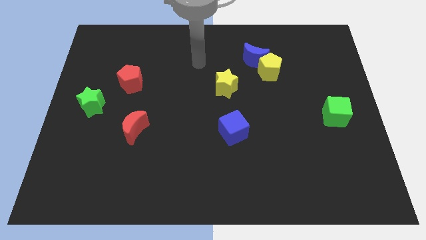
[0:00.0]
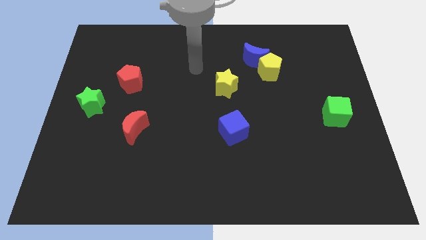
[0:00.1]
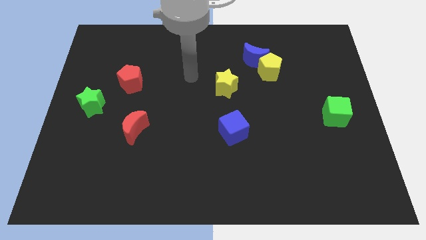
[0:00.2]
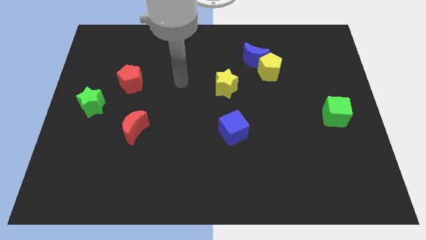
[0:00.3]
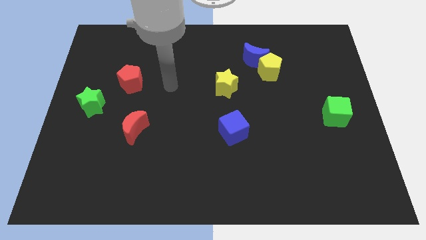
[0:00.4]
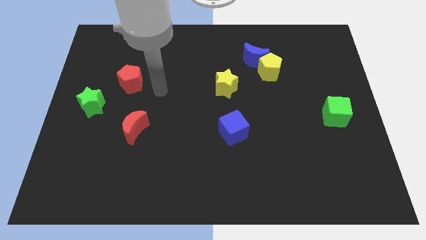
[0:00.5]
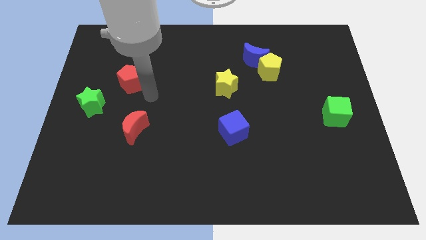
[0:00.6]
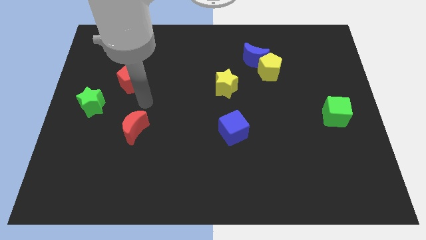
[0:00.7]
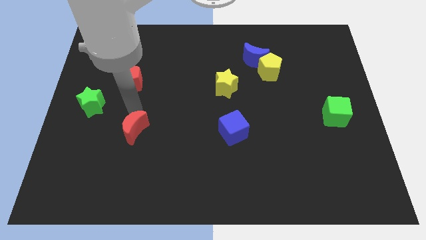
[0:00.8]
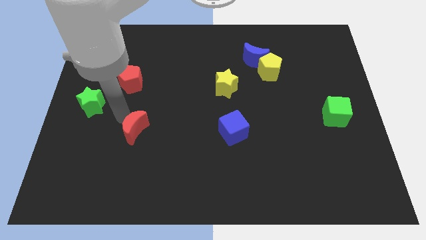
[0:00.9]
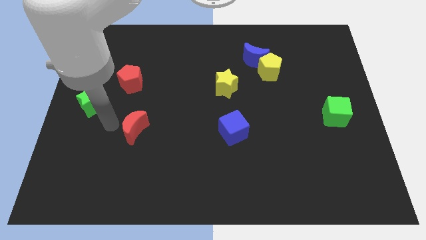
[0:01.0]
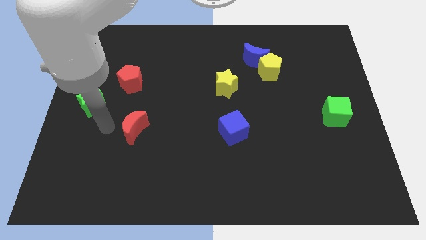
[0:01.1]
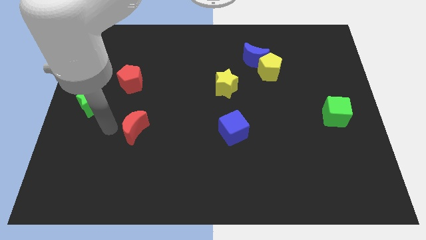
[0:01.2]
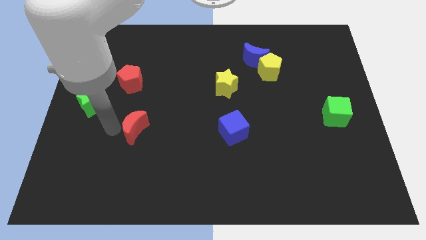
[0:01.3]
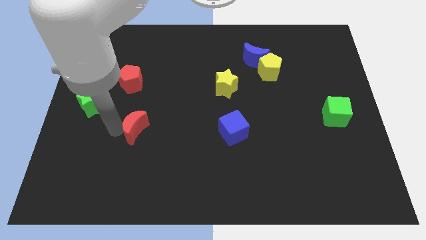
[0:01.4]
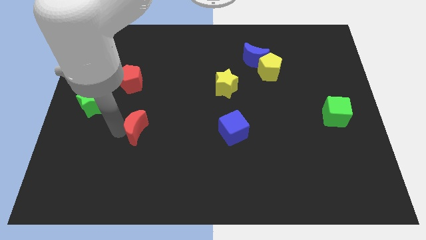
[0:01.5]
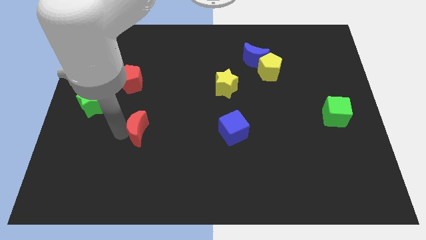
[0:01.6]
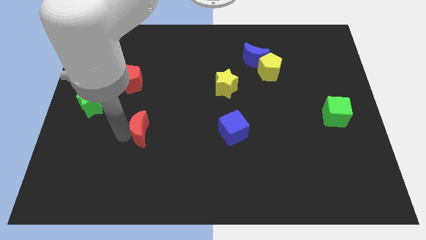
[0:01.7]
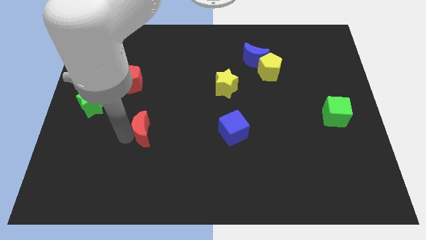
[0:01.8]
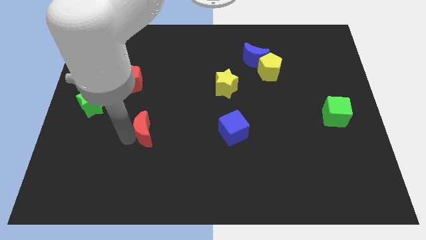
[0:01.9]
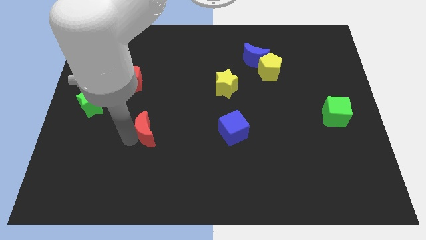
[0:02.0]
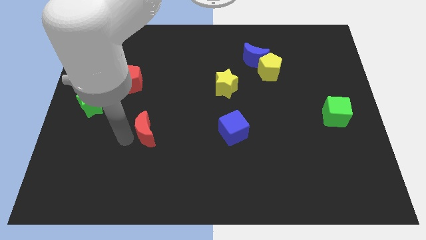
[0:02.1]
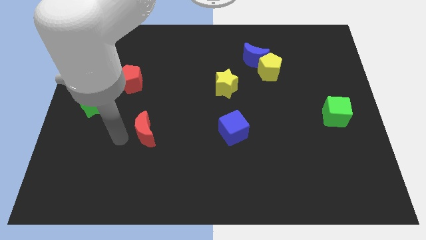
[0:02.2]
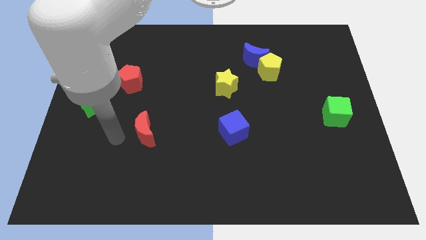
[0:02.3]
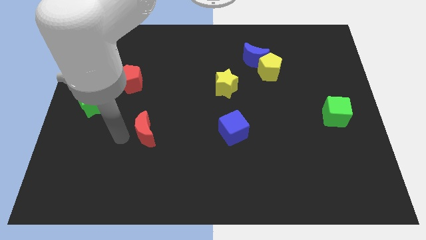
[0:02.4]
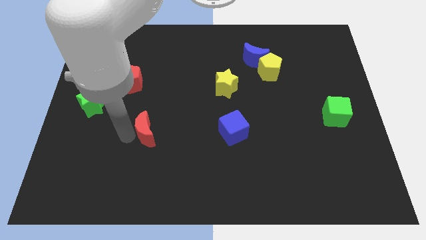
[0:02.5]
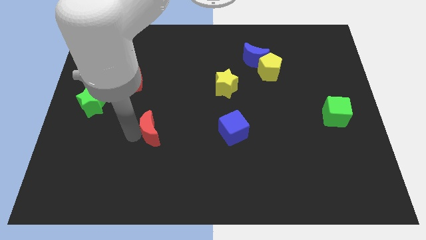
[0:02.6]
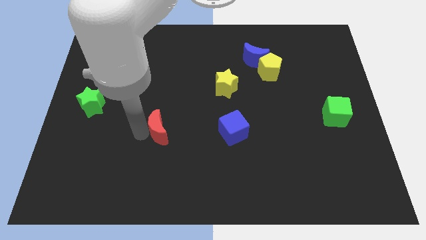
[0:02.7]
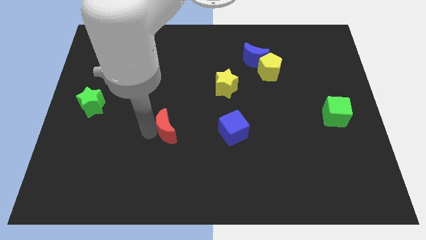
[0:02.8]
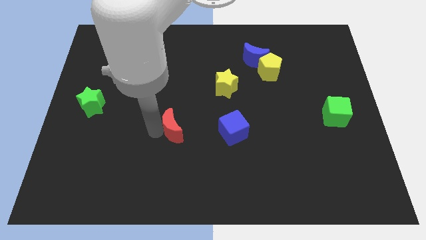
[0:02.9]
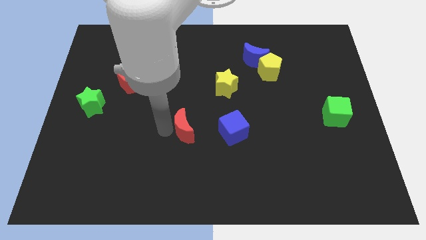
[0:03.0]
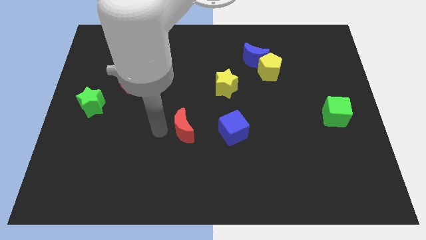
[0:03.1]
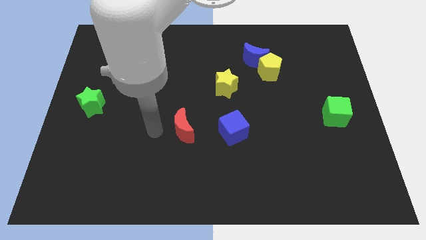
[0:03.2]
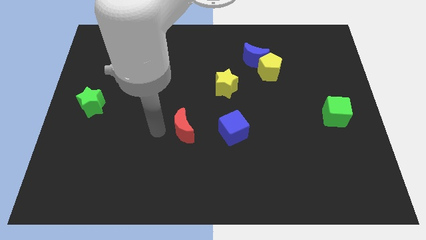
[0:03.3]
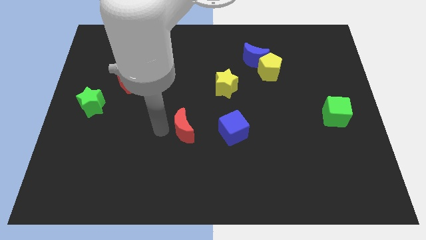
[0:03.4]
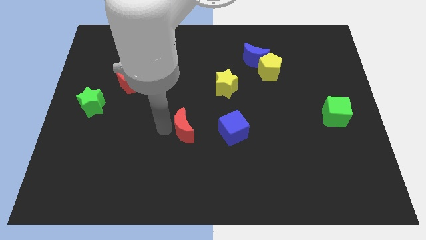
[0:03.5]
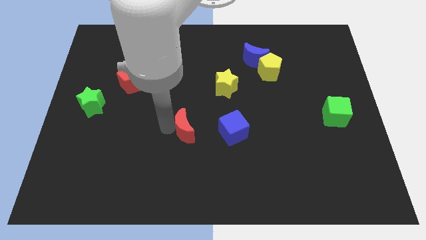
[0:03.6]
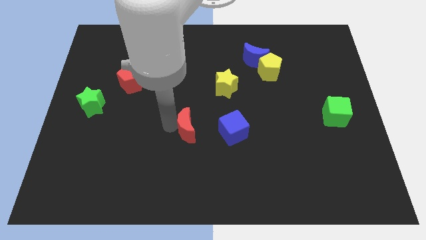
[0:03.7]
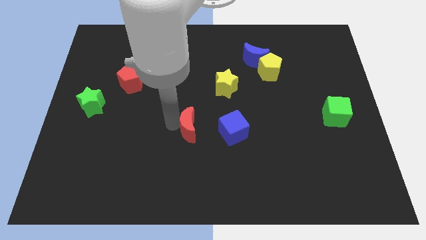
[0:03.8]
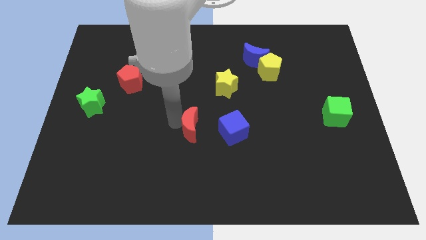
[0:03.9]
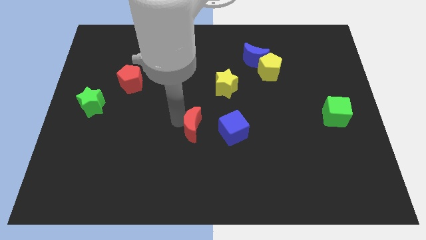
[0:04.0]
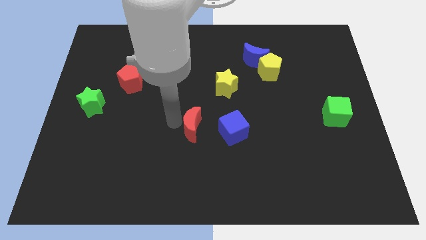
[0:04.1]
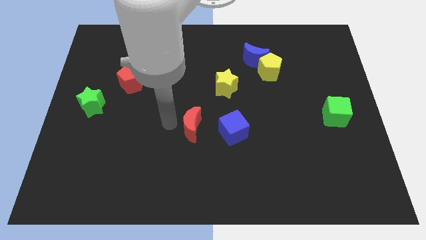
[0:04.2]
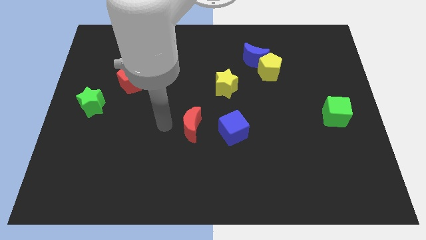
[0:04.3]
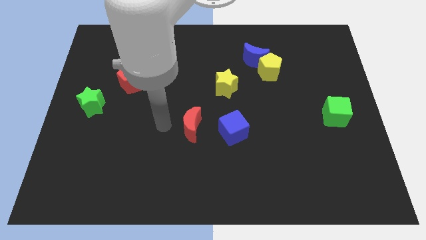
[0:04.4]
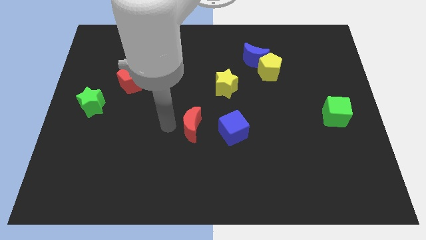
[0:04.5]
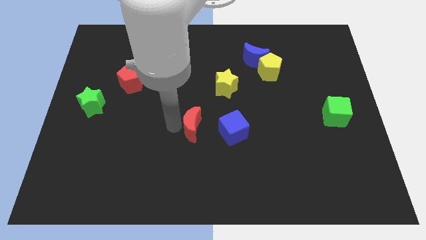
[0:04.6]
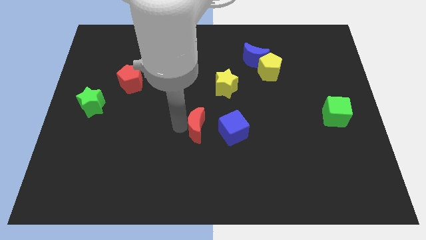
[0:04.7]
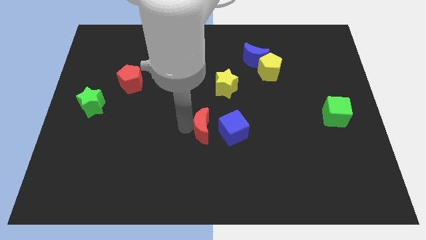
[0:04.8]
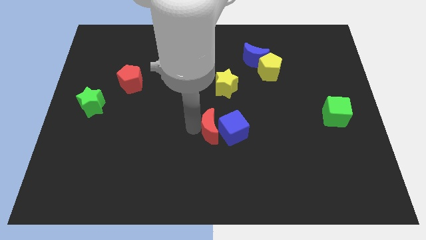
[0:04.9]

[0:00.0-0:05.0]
push the red moon towards the blue cube

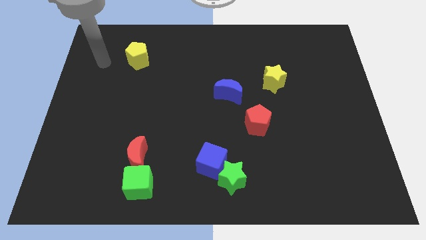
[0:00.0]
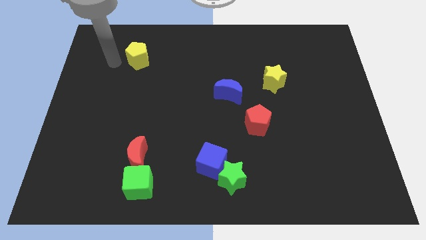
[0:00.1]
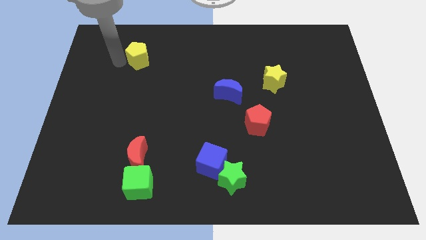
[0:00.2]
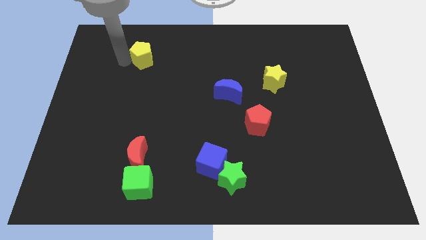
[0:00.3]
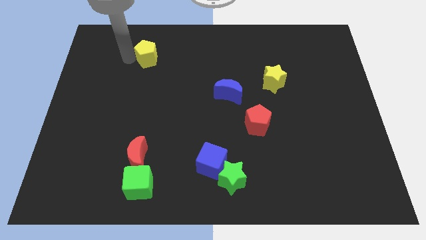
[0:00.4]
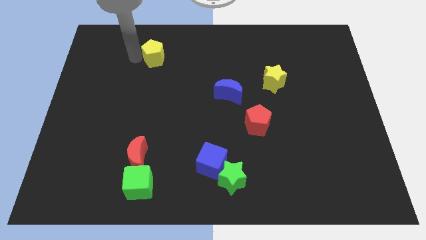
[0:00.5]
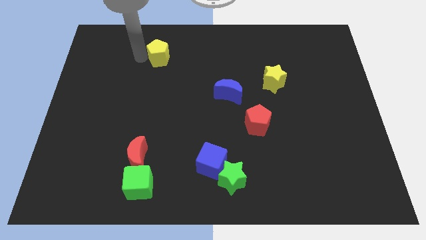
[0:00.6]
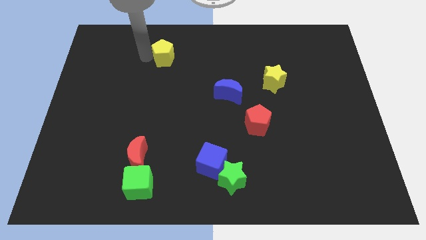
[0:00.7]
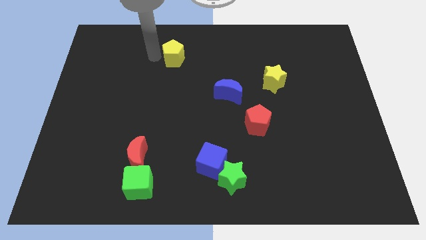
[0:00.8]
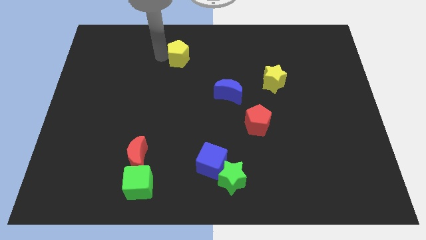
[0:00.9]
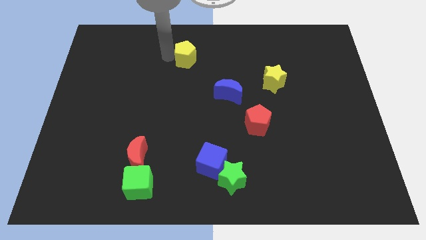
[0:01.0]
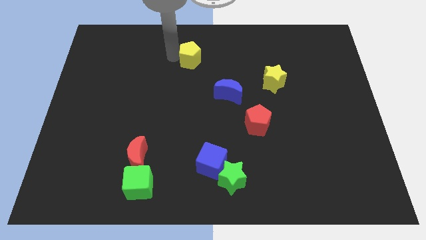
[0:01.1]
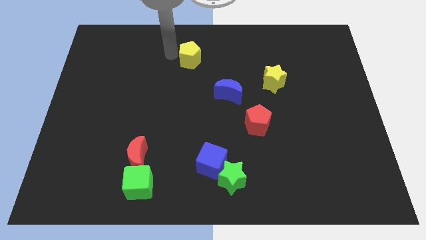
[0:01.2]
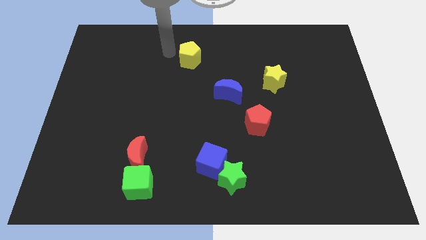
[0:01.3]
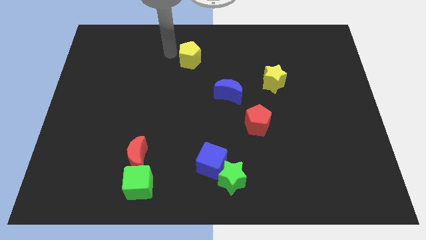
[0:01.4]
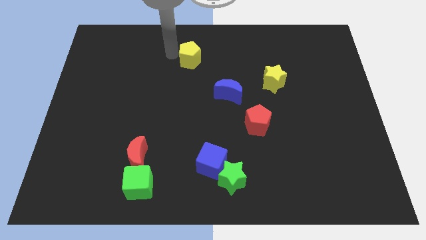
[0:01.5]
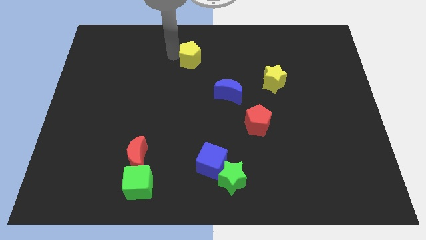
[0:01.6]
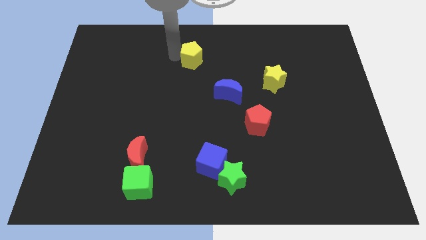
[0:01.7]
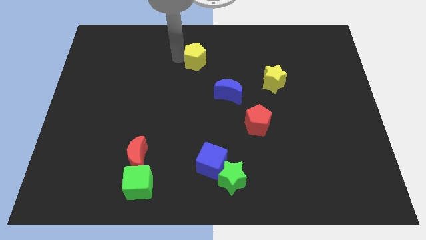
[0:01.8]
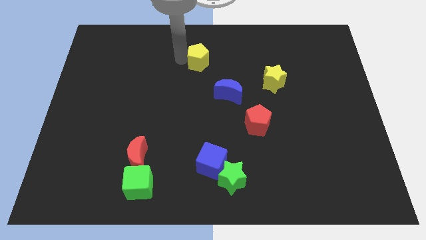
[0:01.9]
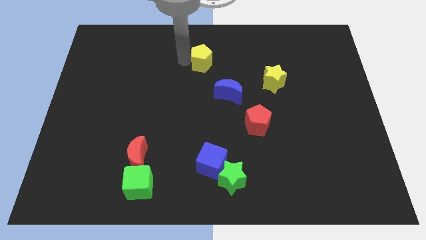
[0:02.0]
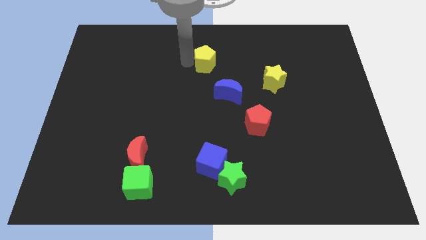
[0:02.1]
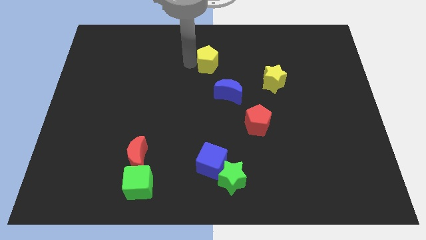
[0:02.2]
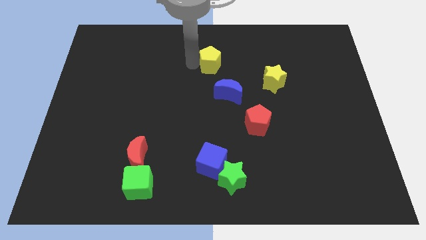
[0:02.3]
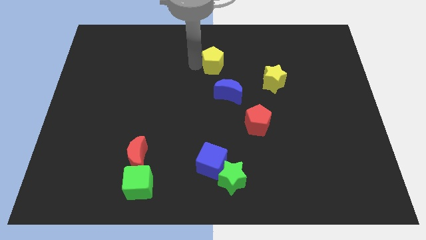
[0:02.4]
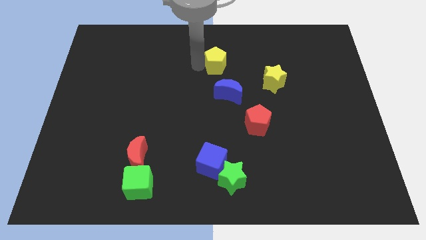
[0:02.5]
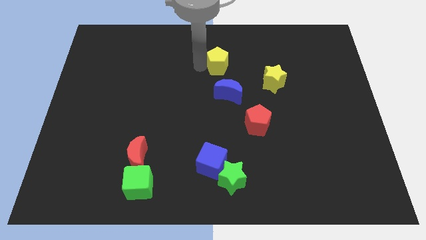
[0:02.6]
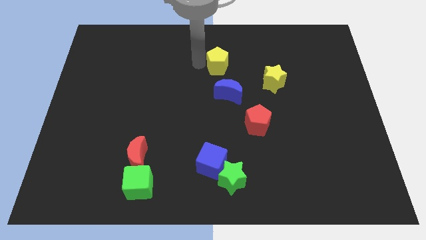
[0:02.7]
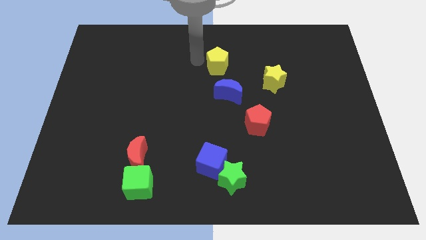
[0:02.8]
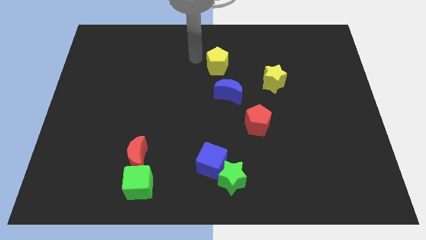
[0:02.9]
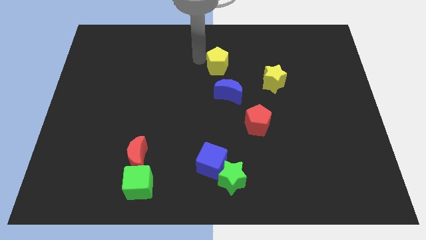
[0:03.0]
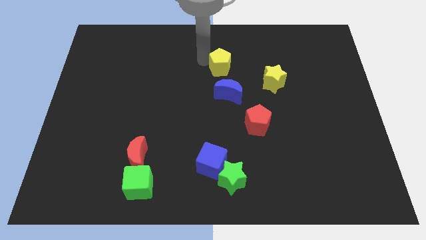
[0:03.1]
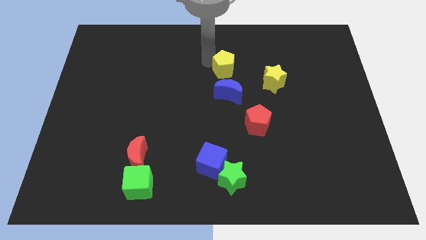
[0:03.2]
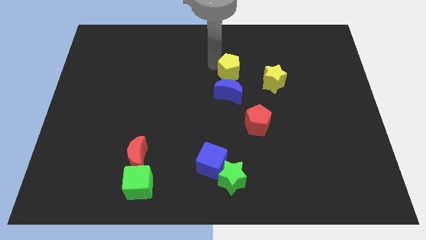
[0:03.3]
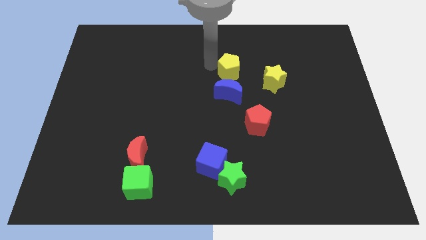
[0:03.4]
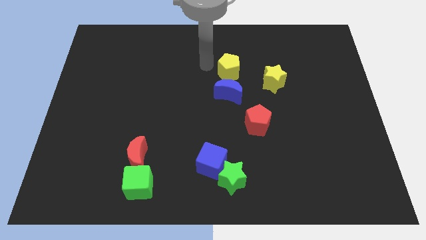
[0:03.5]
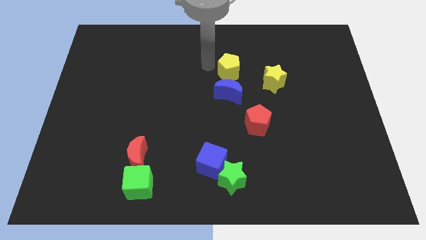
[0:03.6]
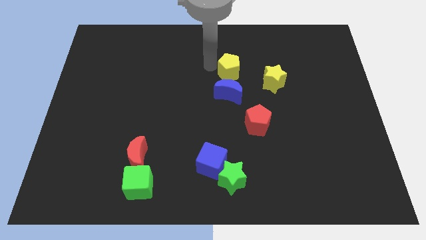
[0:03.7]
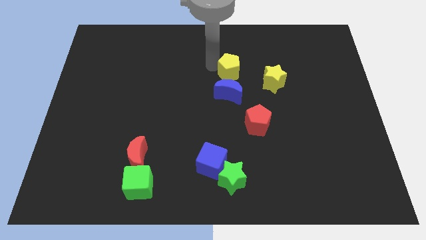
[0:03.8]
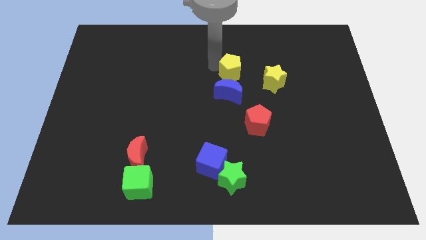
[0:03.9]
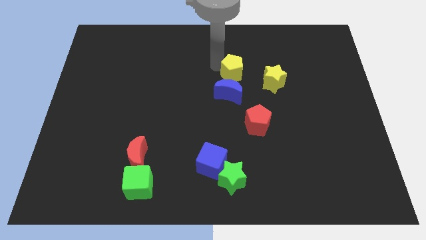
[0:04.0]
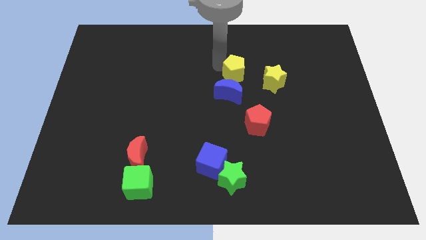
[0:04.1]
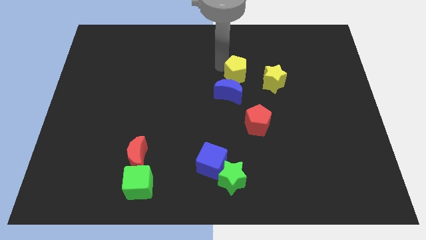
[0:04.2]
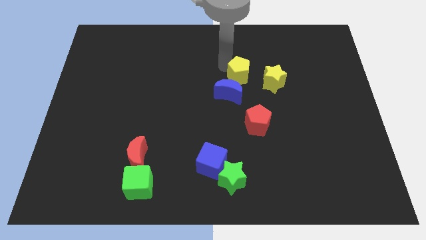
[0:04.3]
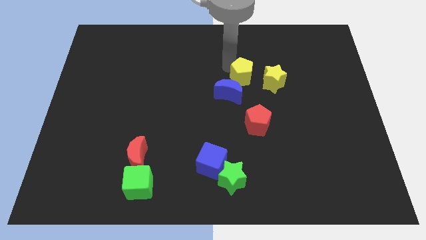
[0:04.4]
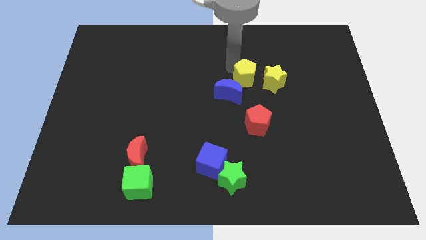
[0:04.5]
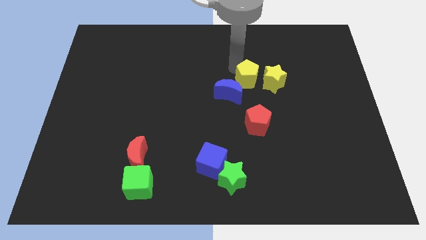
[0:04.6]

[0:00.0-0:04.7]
slide the yellow pentagon towards the yellow star
